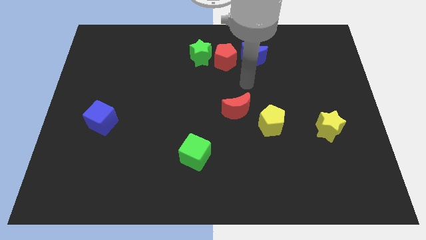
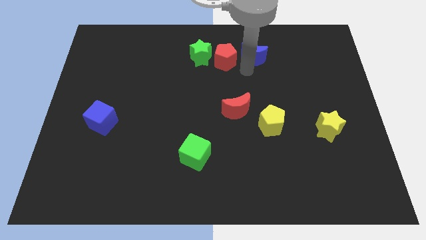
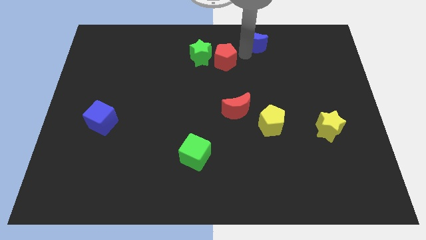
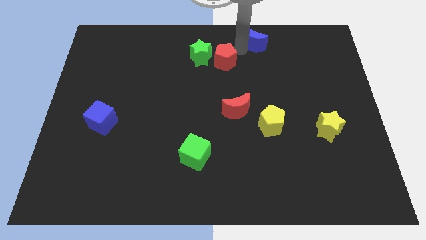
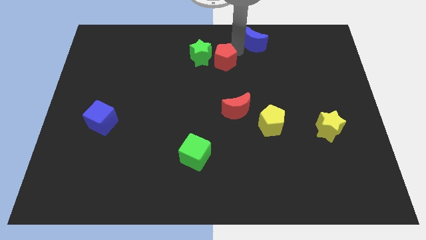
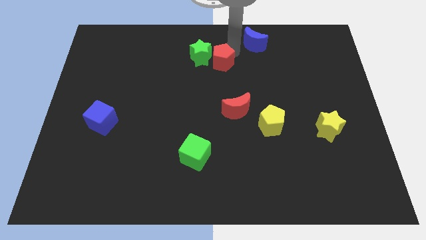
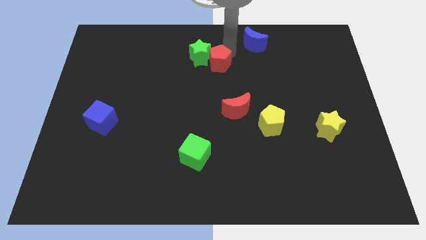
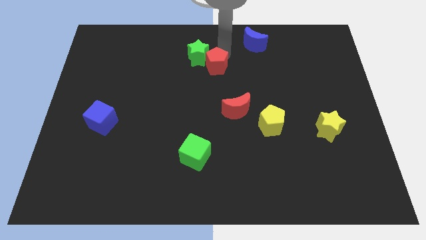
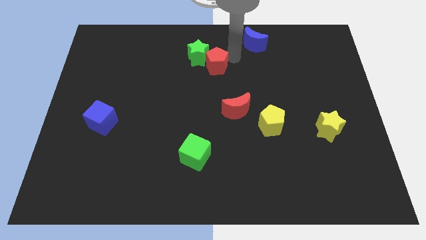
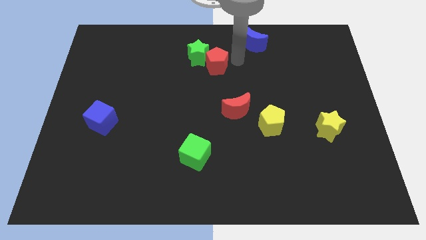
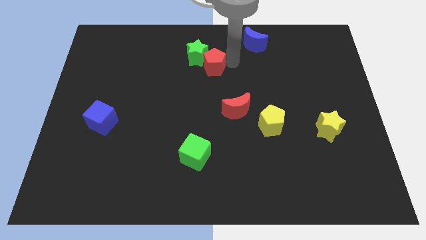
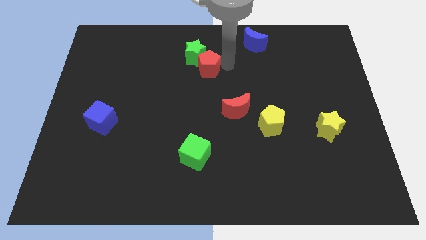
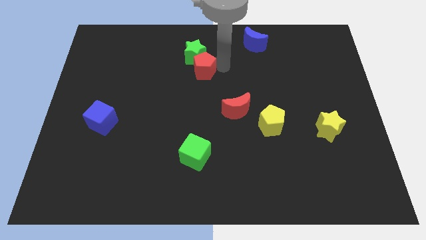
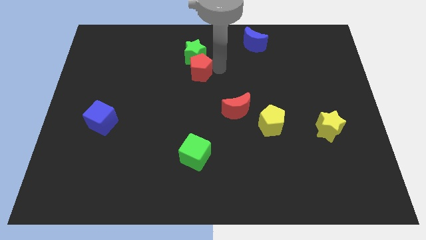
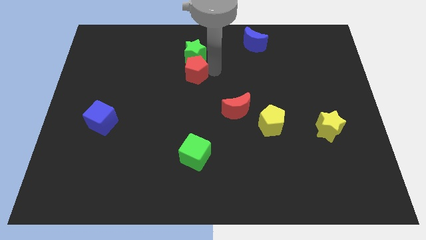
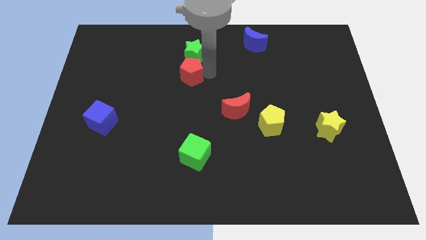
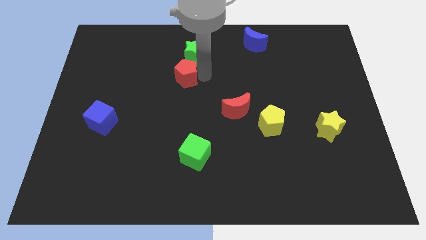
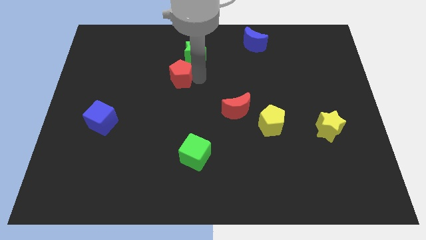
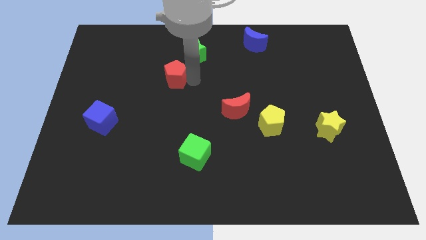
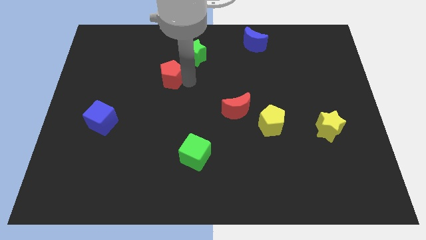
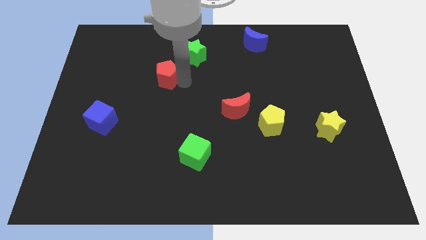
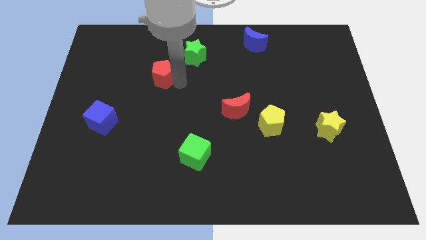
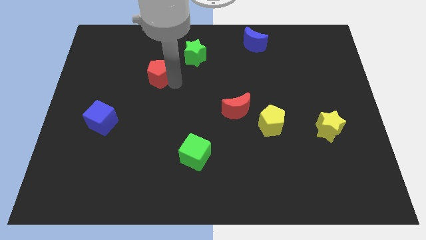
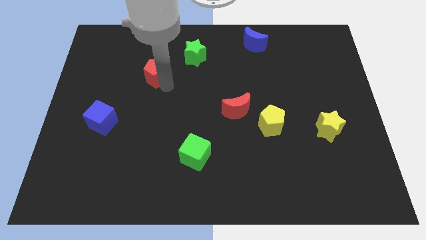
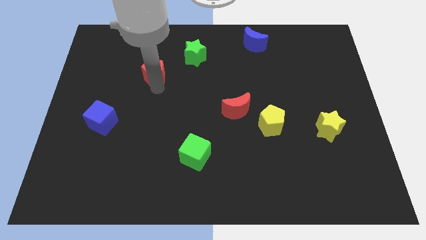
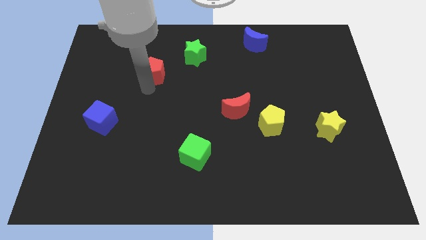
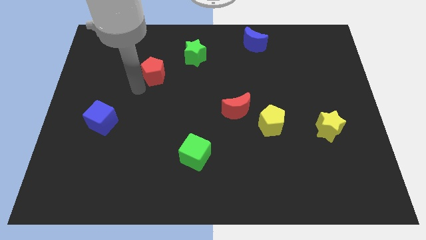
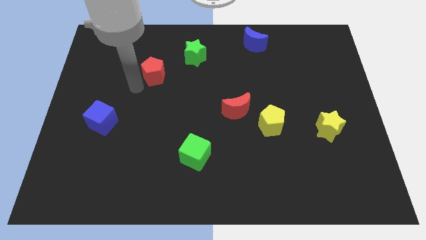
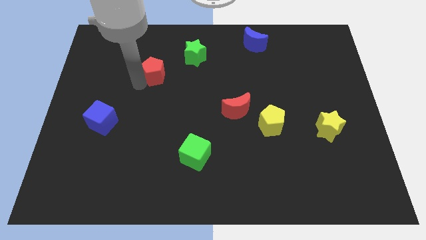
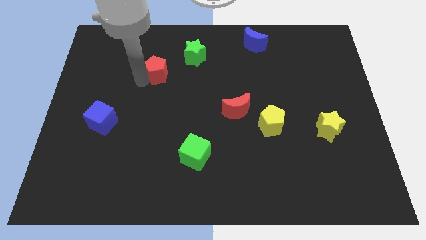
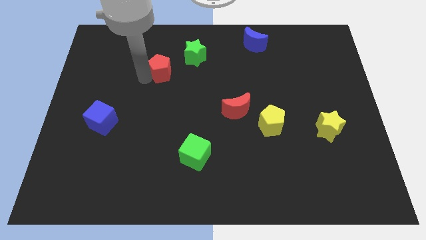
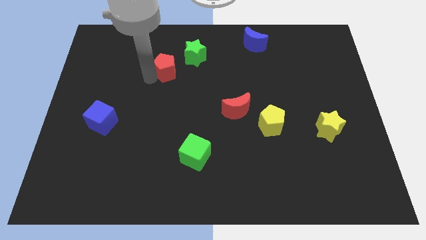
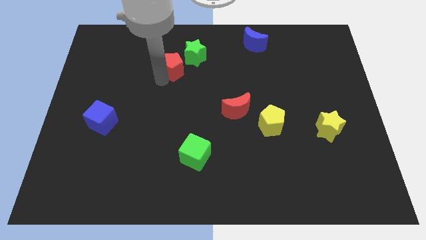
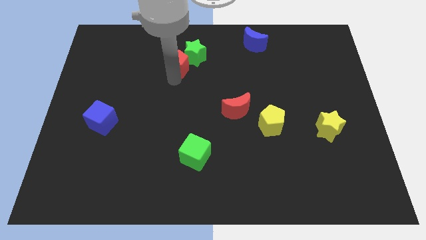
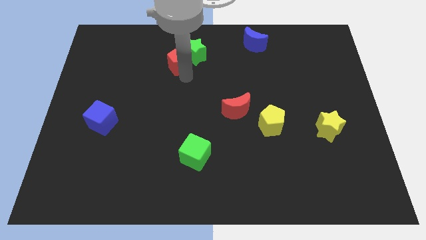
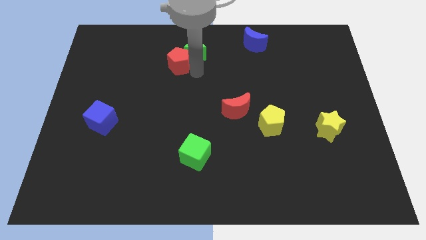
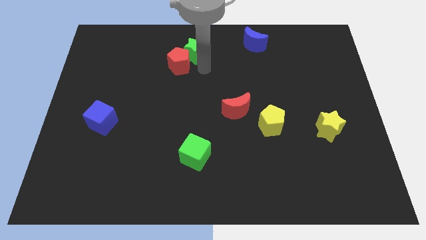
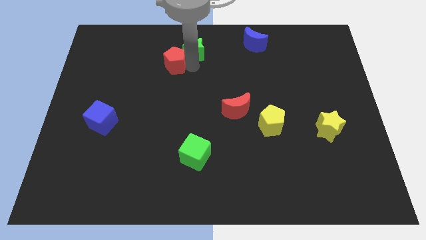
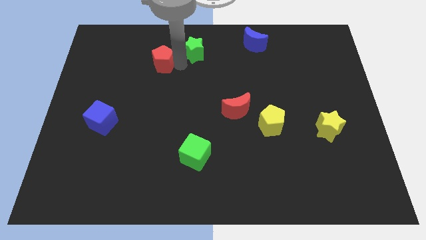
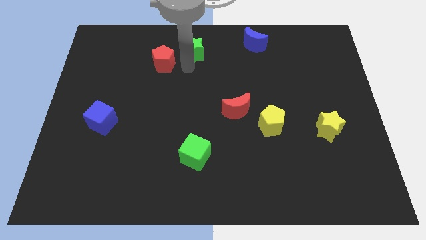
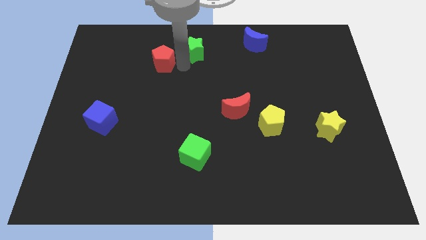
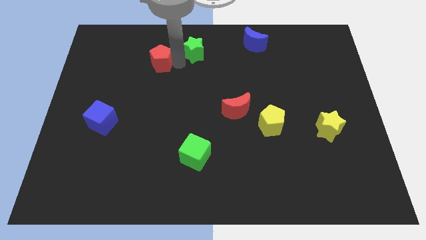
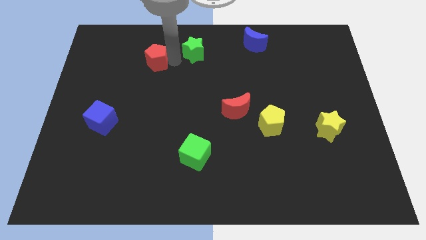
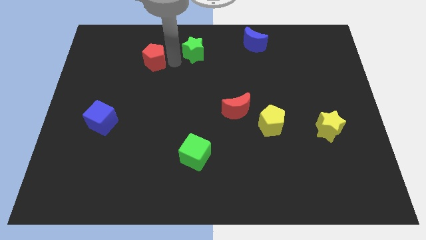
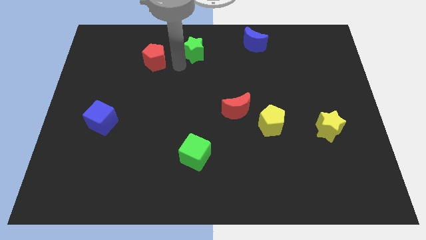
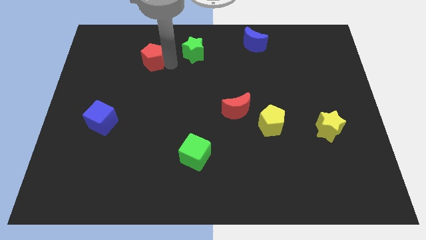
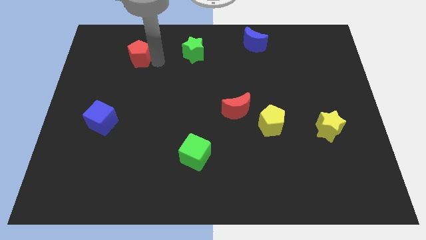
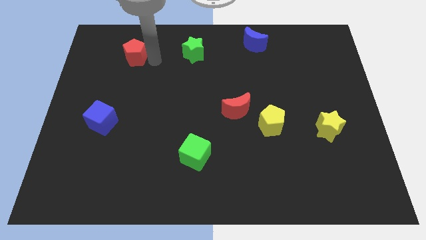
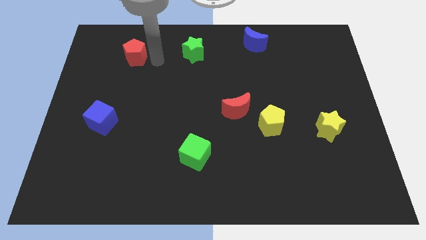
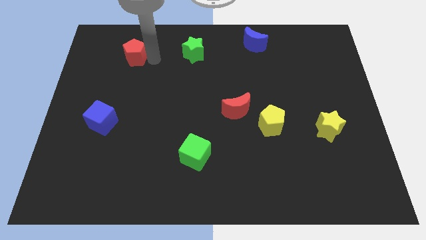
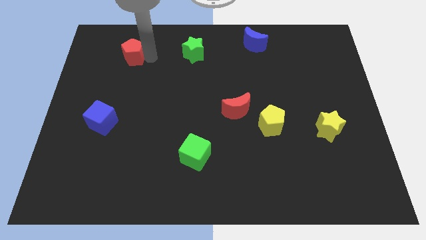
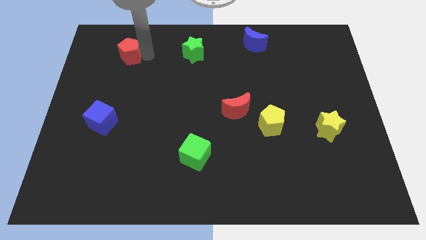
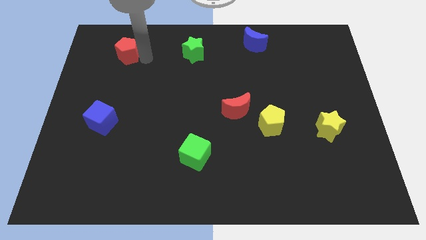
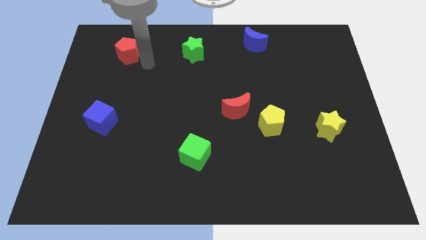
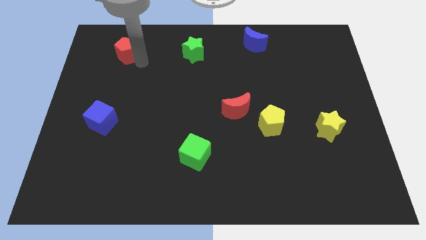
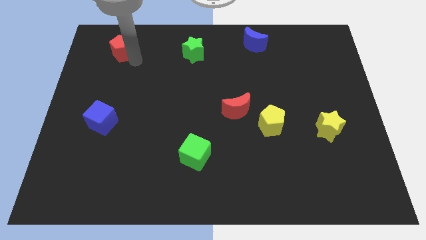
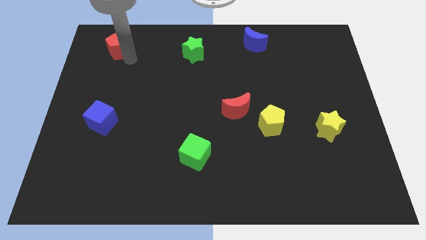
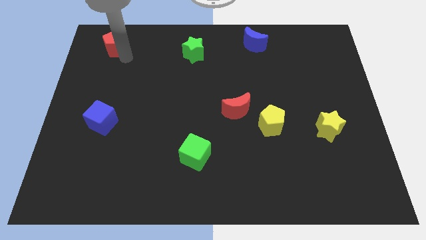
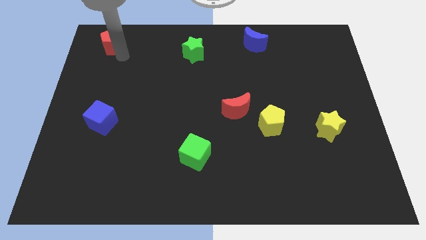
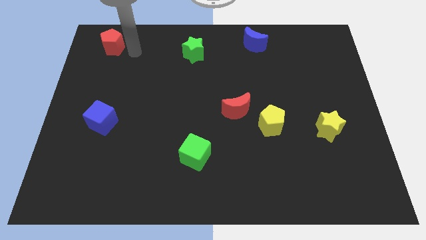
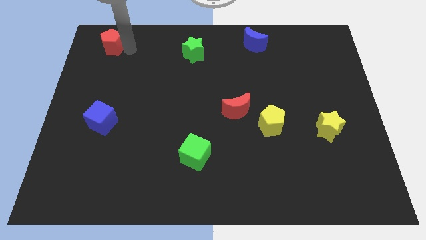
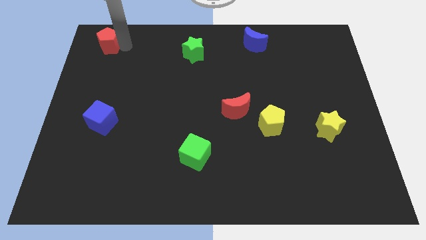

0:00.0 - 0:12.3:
move the red pentagon to the top left of the board

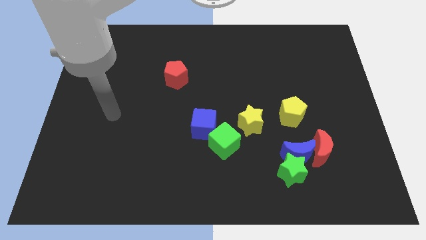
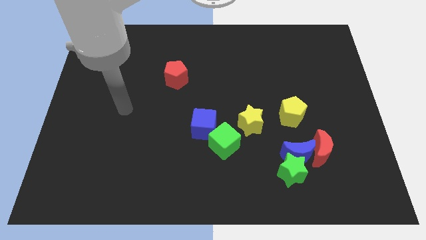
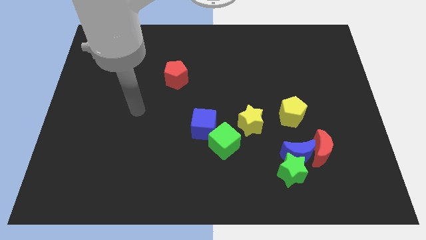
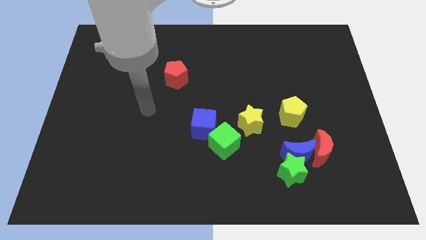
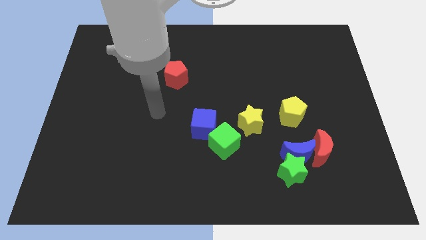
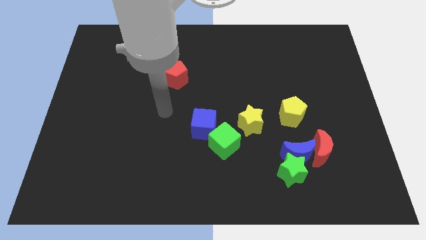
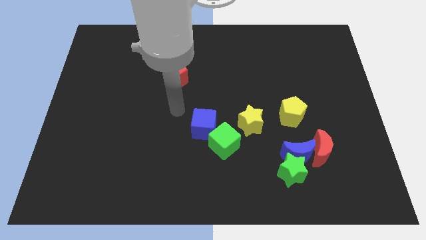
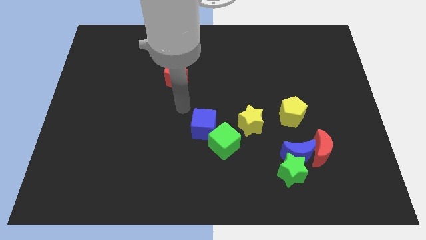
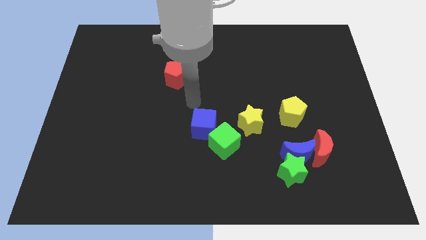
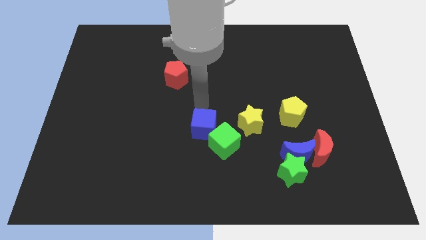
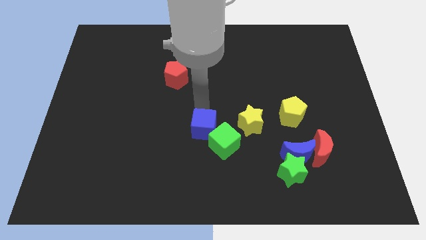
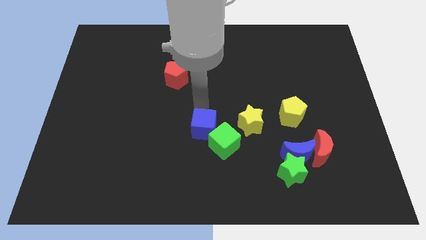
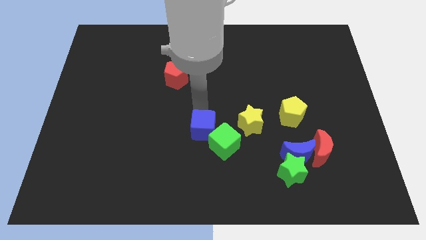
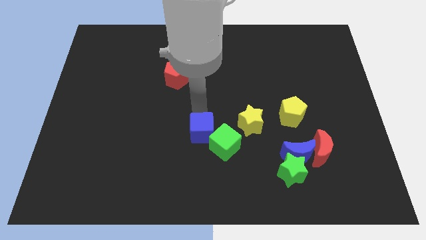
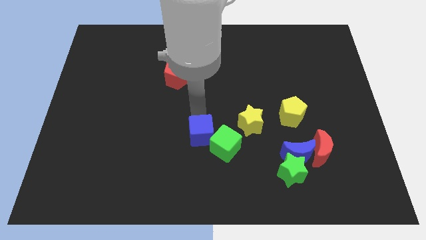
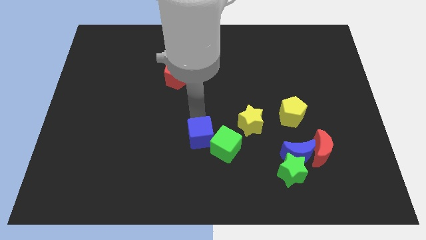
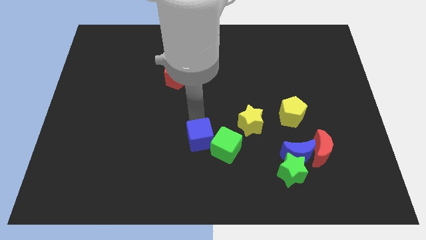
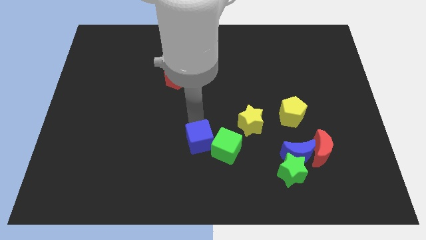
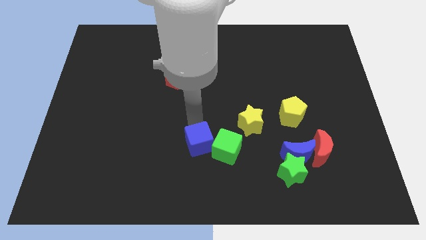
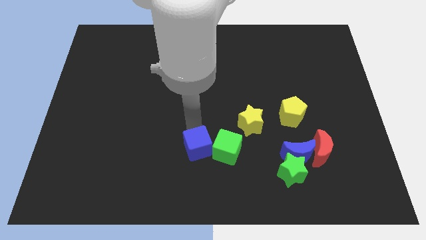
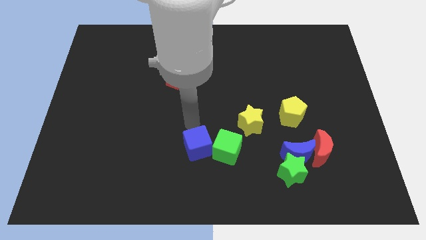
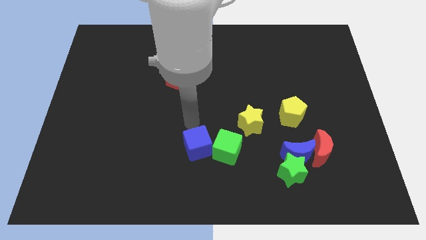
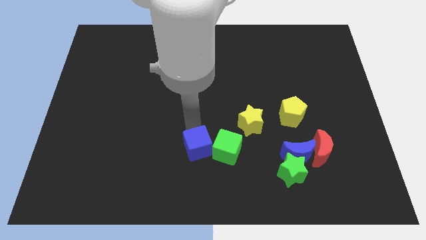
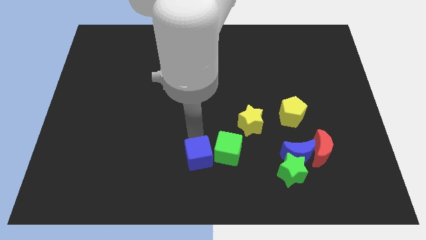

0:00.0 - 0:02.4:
put the blue cube to the bottom
